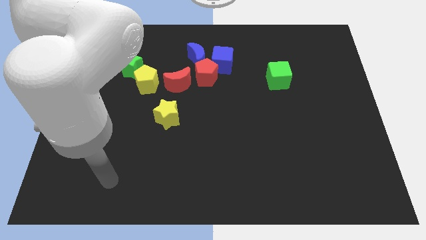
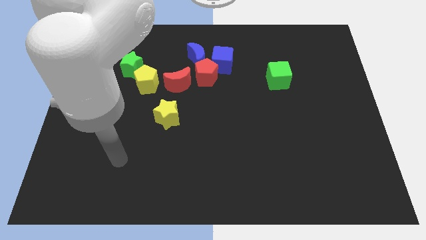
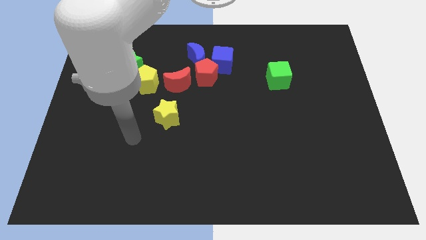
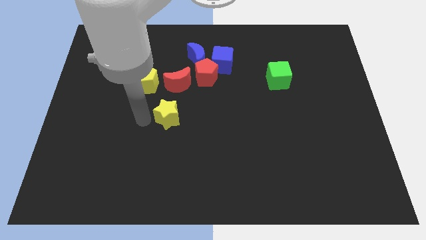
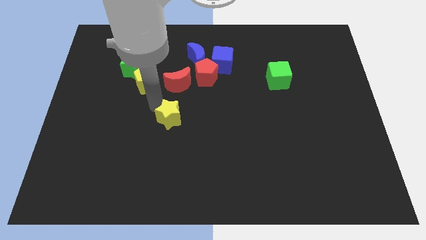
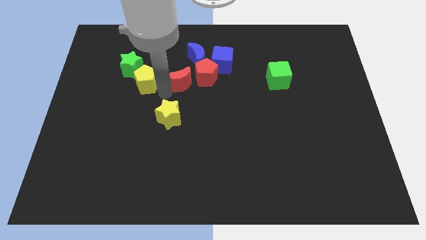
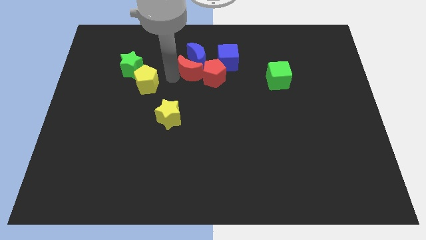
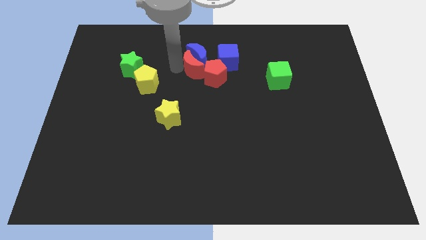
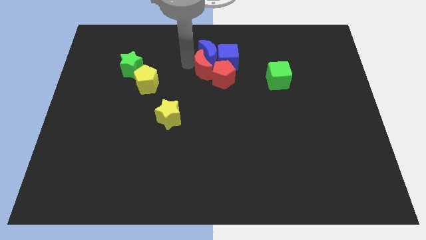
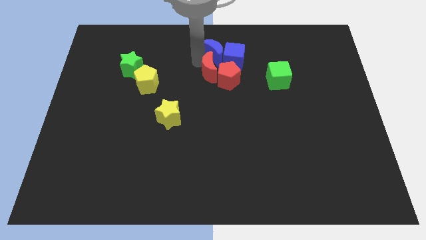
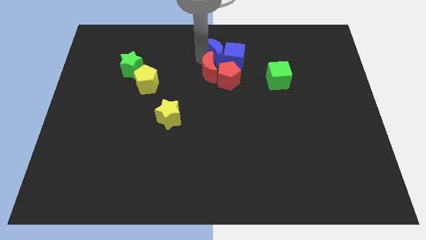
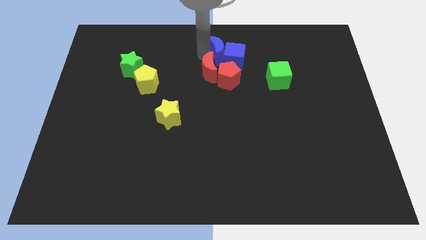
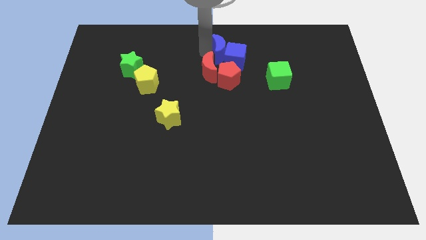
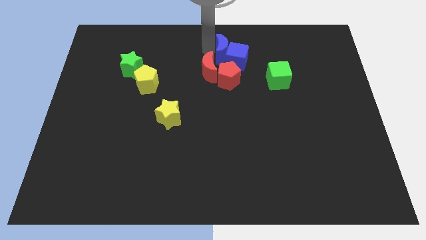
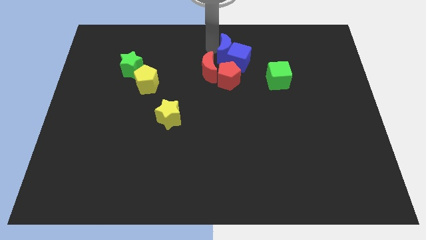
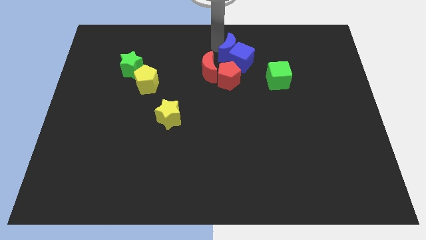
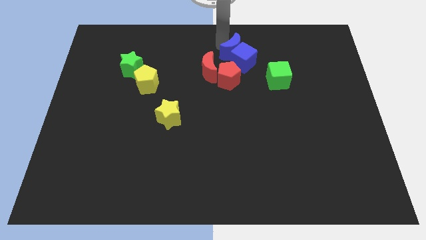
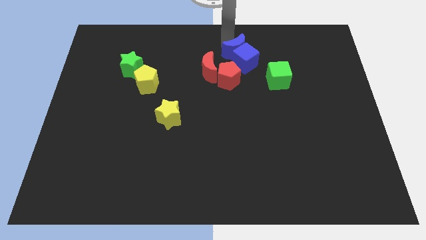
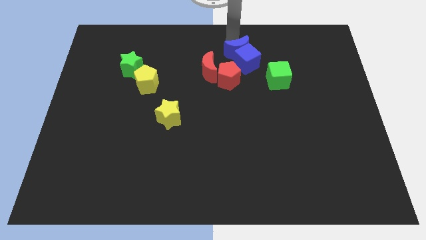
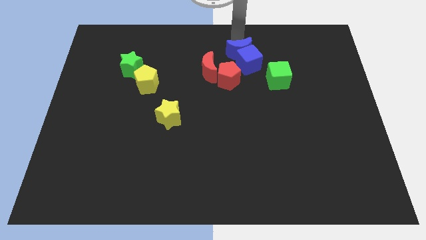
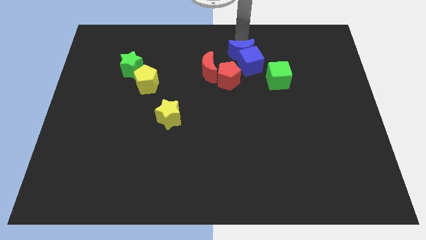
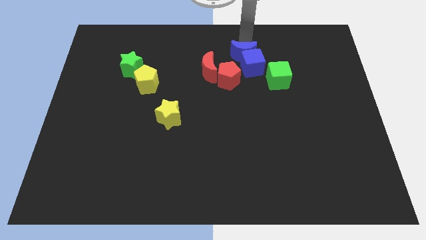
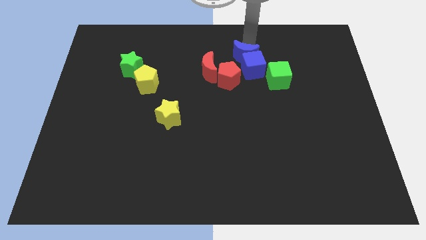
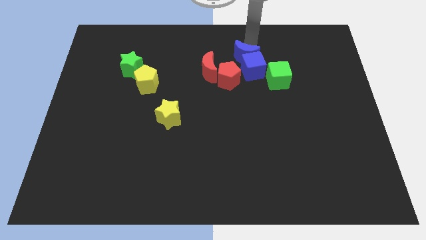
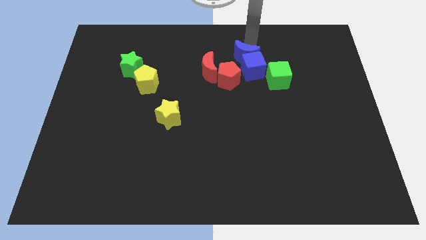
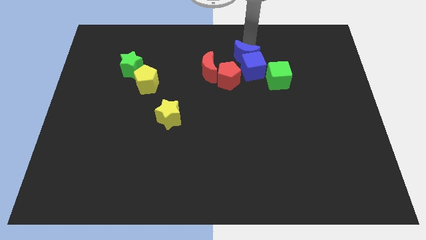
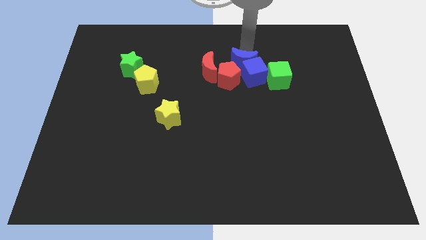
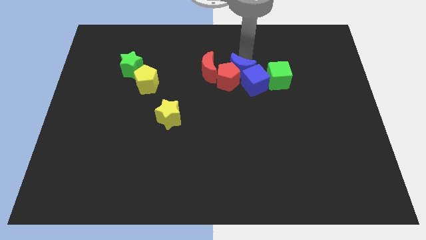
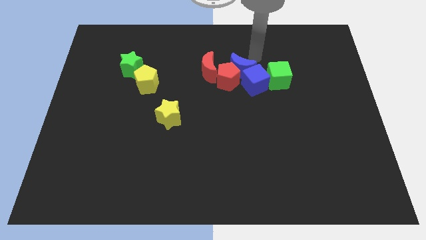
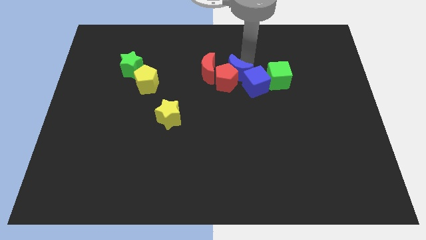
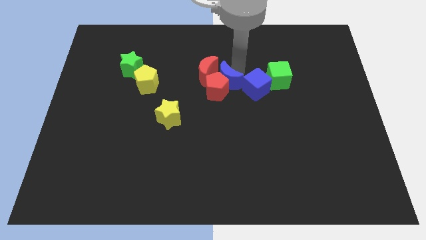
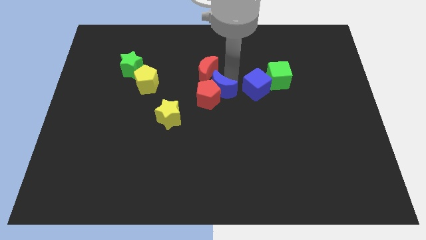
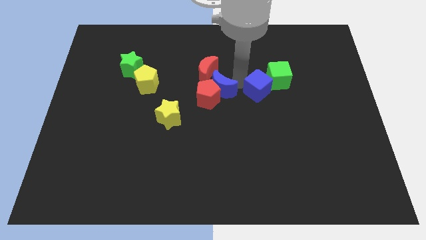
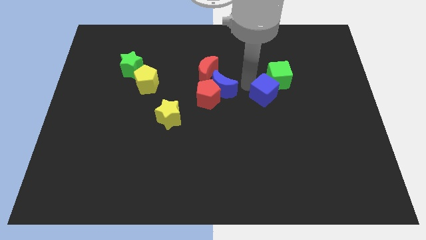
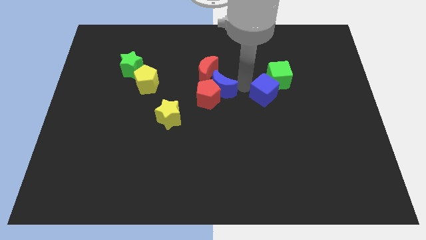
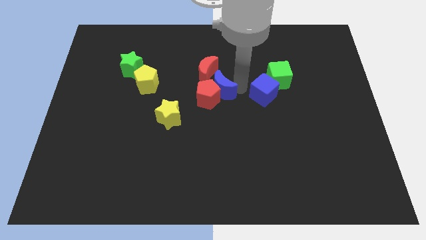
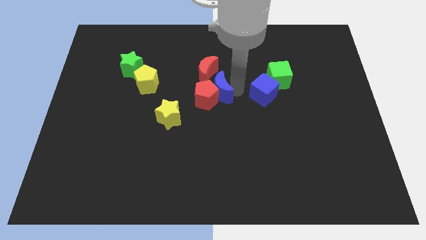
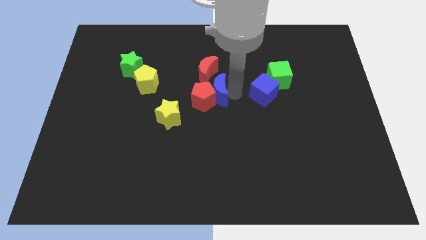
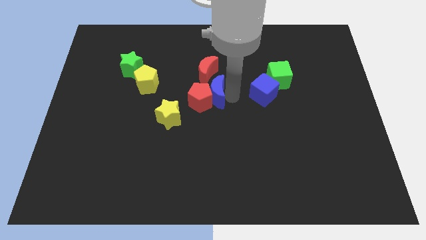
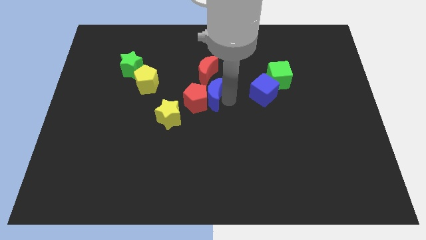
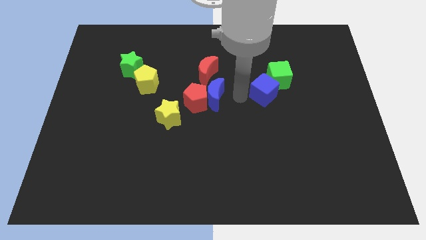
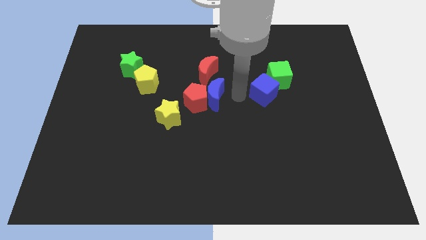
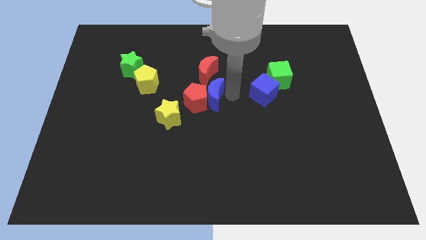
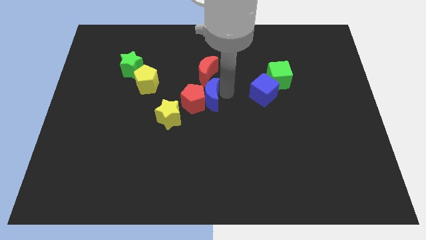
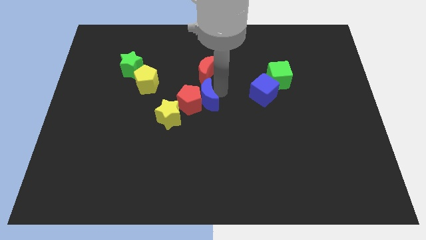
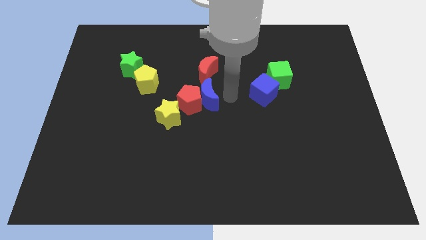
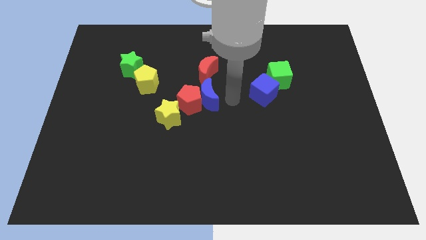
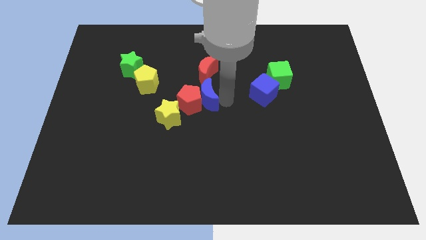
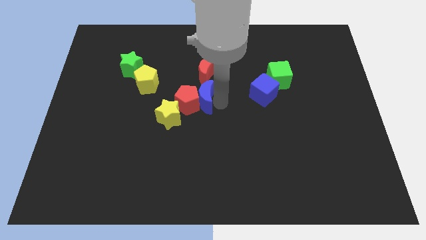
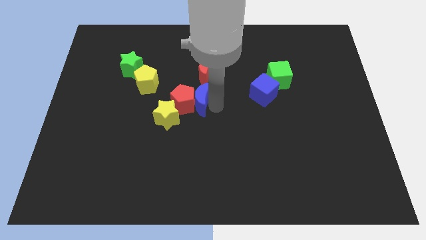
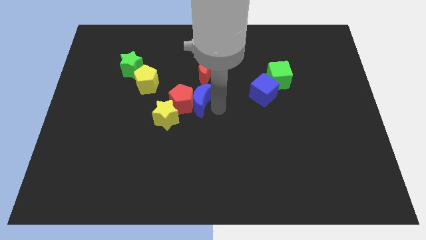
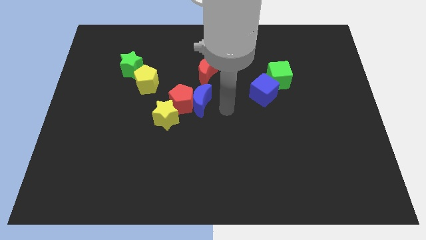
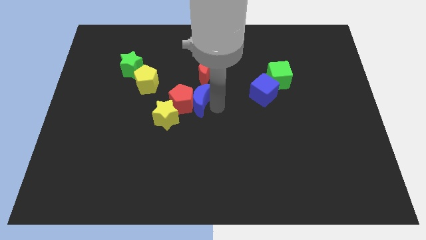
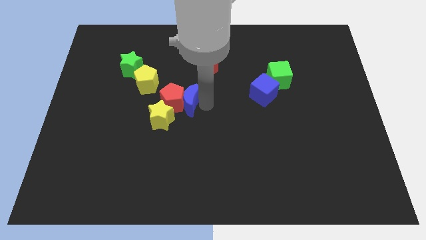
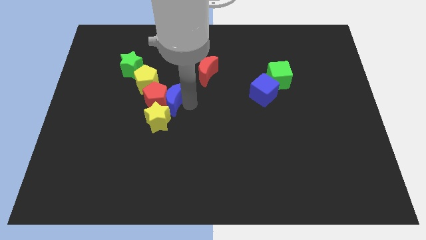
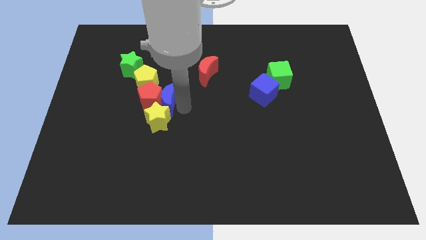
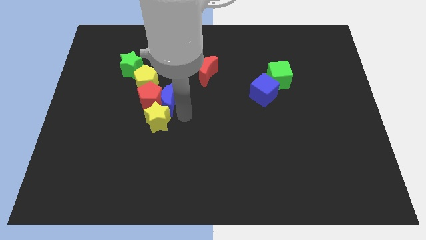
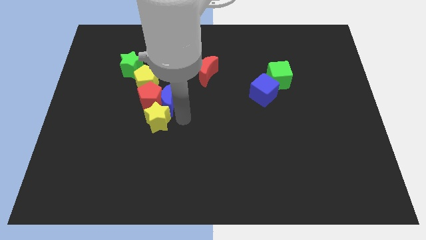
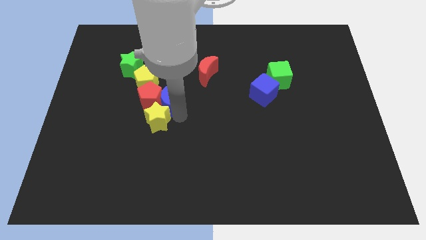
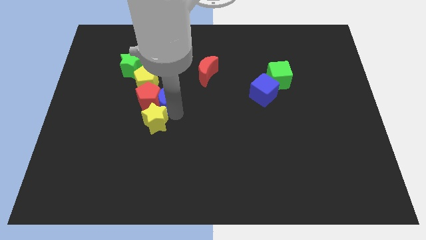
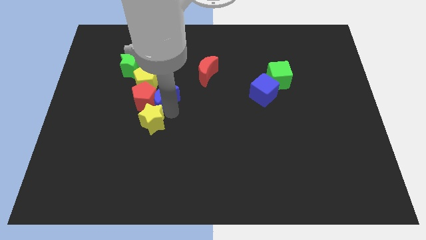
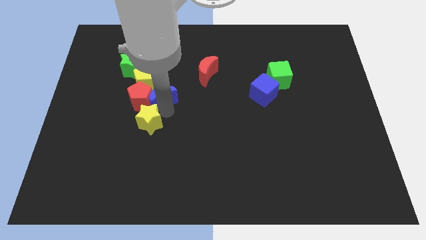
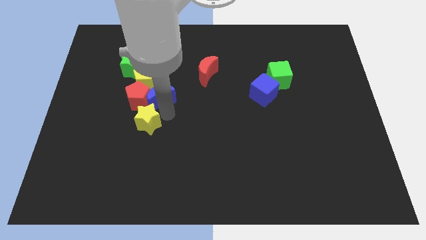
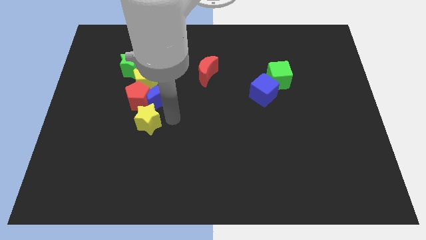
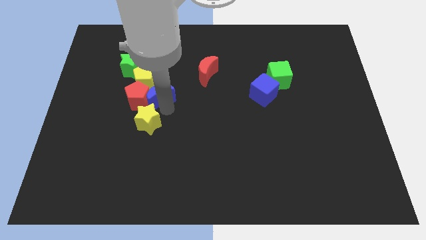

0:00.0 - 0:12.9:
push the blue moon diagonally down and to the right of the green star

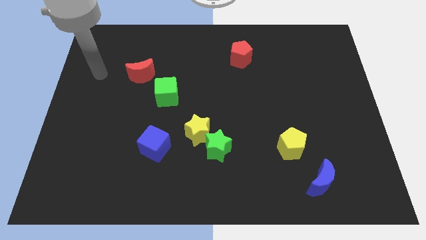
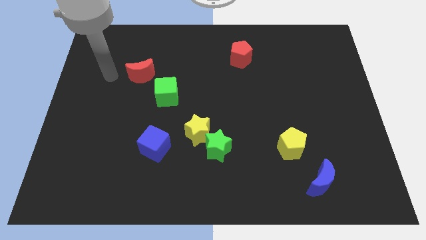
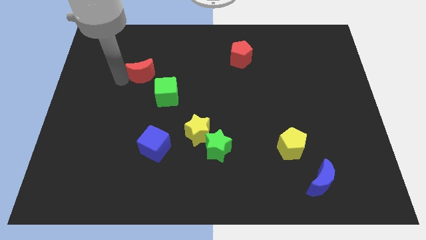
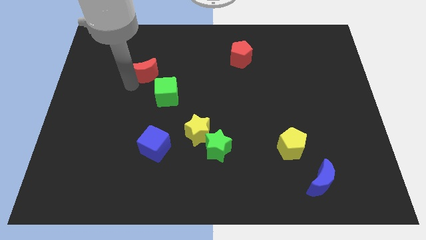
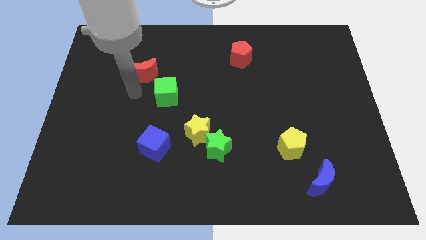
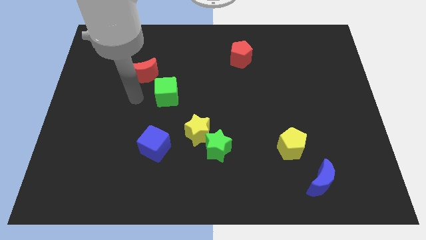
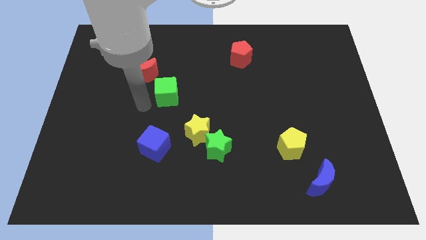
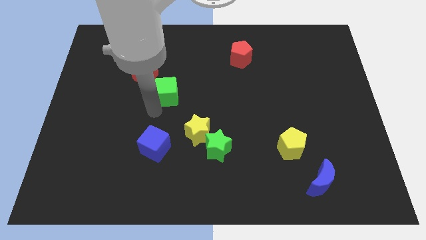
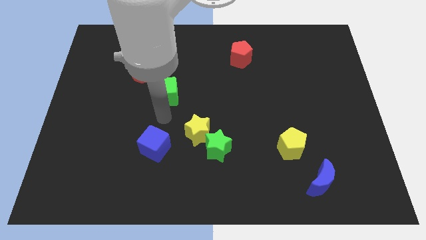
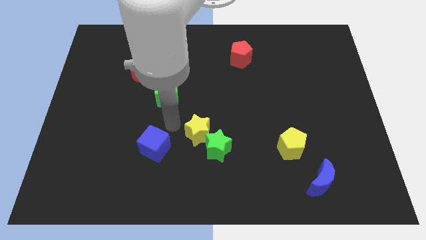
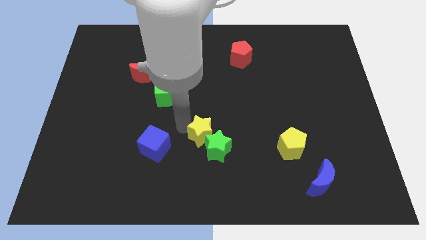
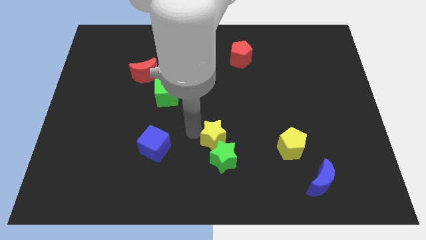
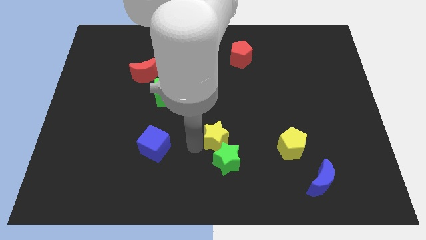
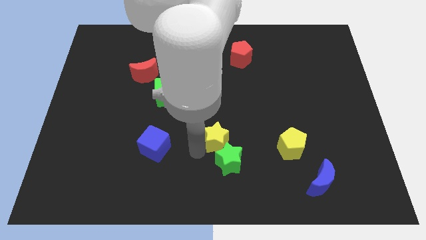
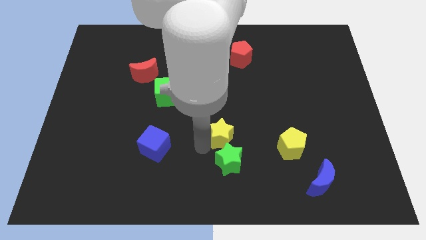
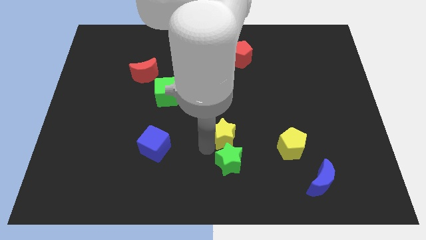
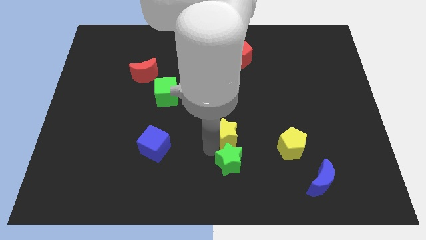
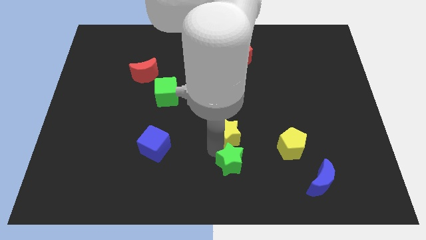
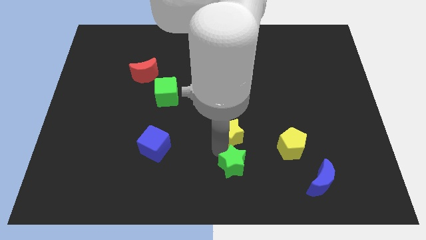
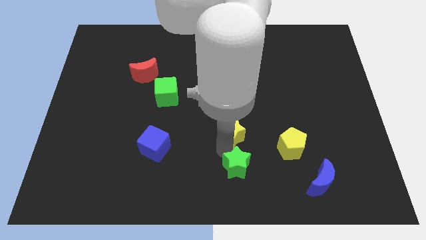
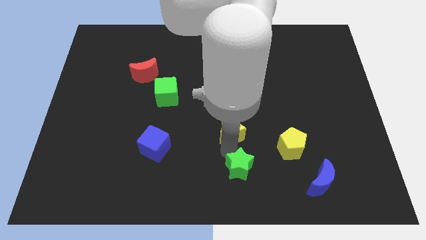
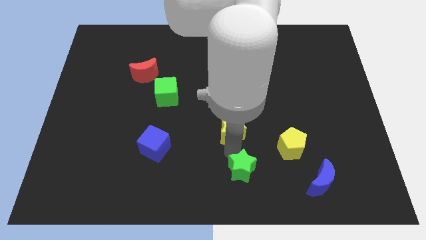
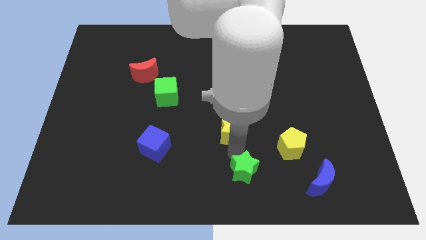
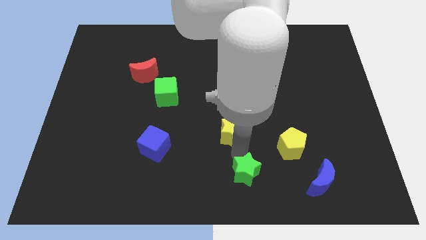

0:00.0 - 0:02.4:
slide the green star to the left of the blue moon
